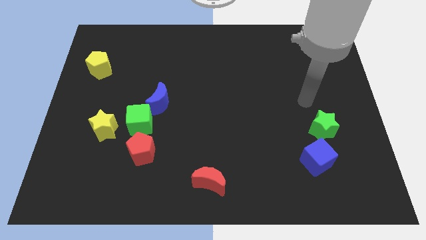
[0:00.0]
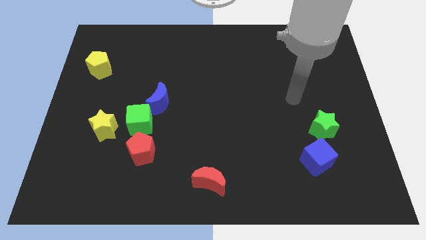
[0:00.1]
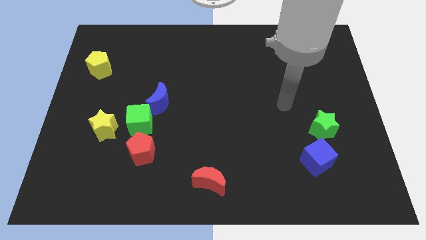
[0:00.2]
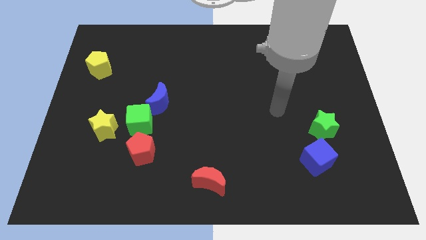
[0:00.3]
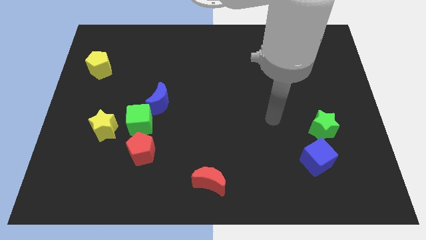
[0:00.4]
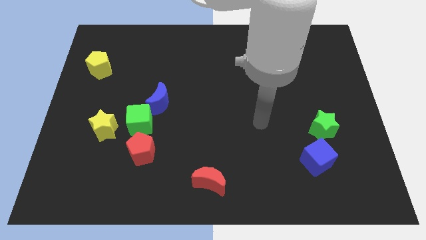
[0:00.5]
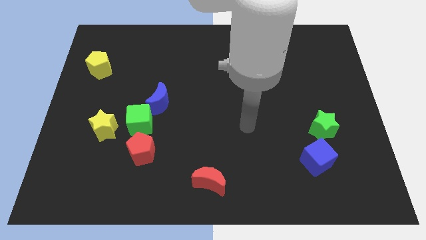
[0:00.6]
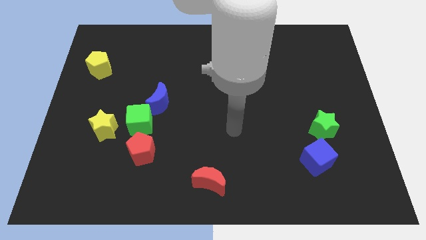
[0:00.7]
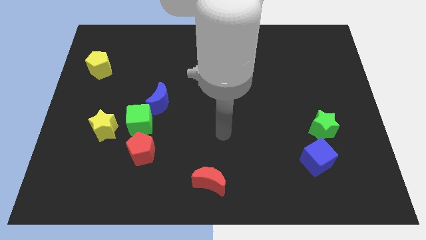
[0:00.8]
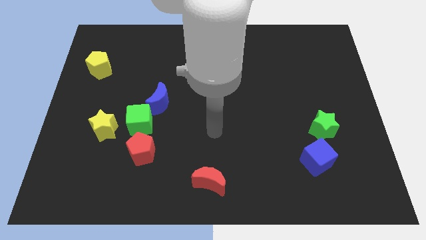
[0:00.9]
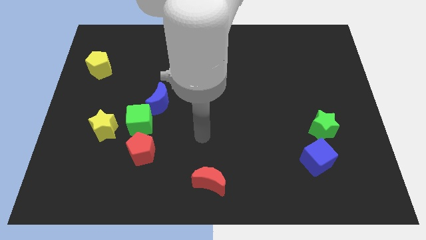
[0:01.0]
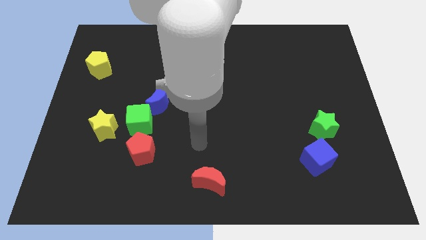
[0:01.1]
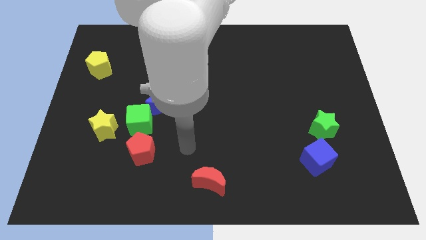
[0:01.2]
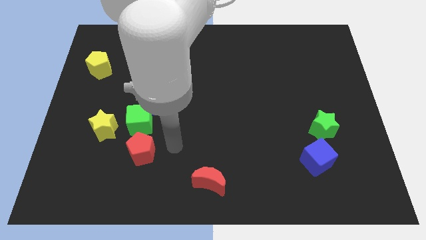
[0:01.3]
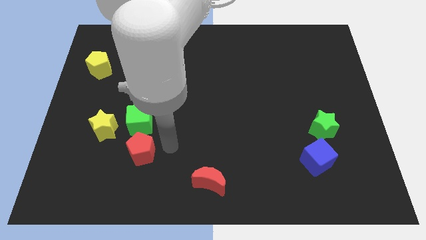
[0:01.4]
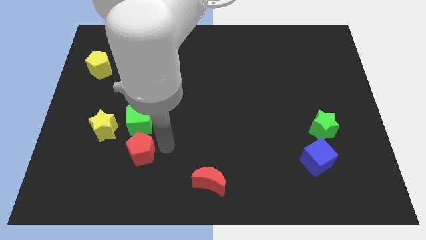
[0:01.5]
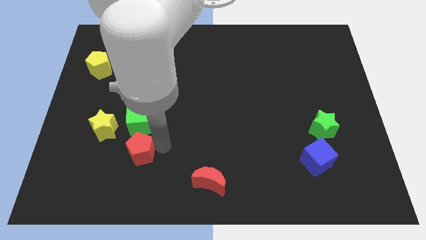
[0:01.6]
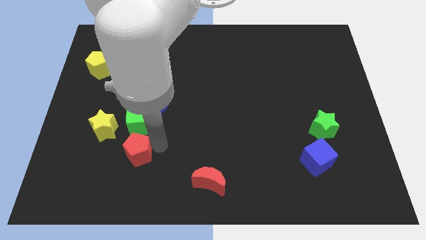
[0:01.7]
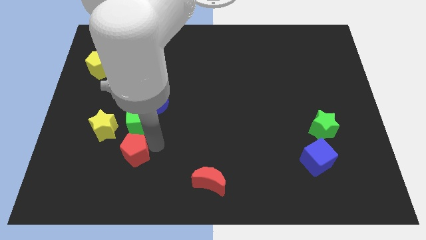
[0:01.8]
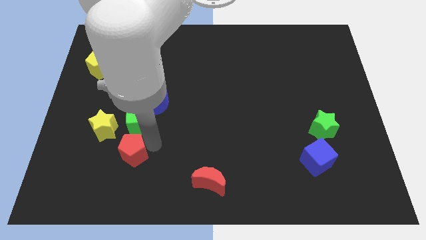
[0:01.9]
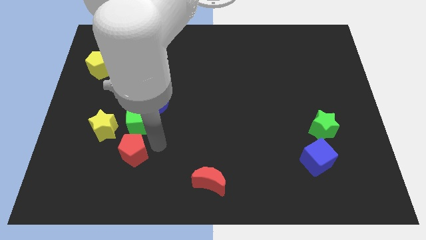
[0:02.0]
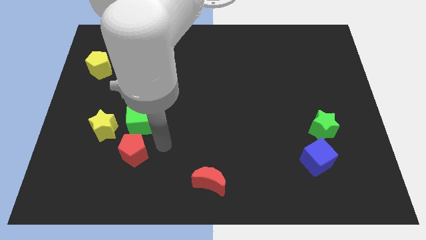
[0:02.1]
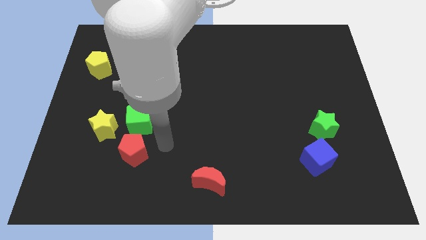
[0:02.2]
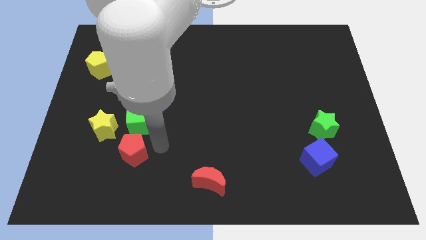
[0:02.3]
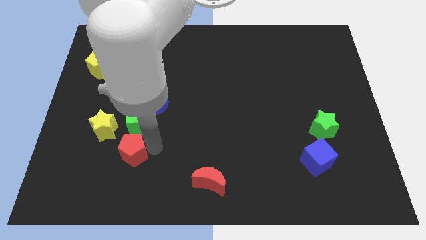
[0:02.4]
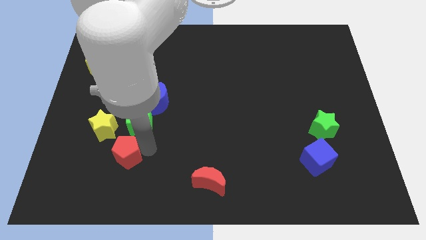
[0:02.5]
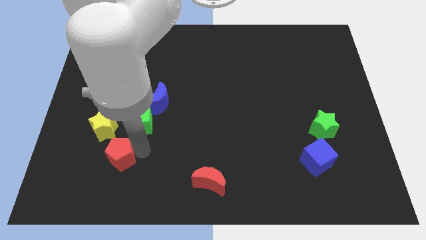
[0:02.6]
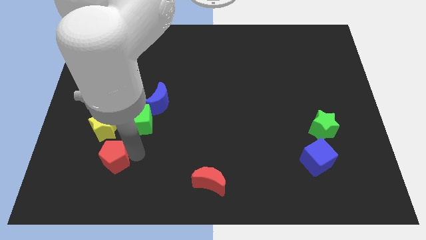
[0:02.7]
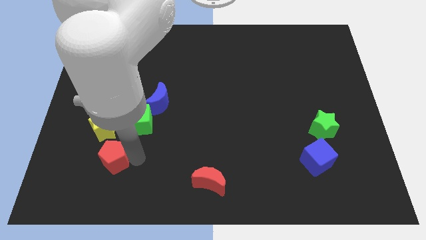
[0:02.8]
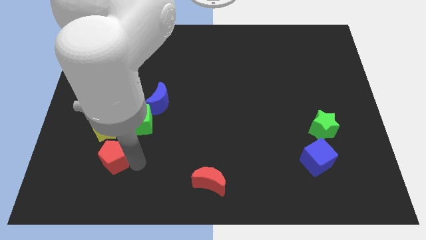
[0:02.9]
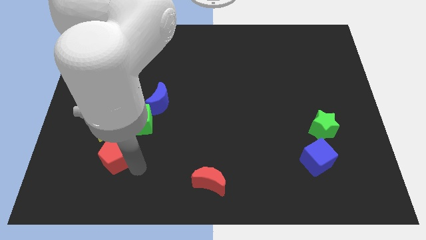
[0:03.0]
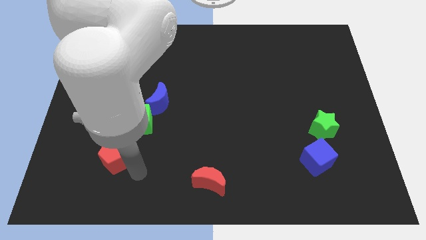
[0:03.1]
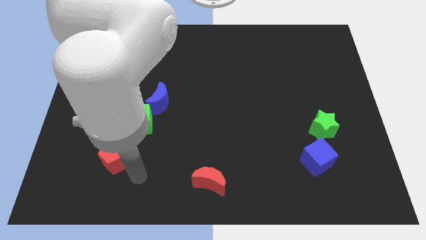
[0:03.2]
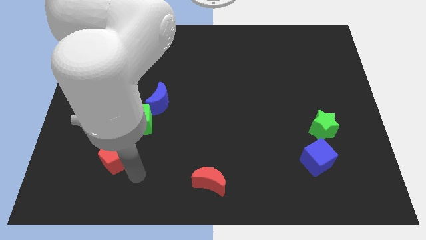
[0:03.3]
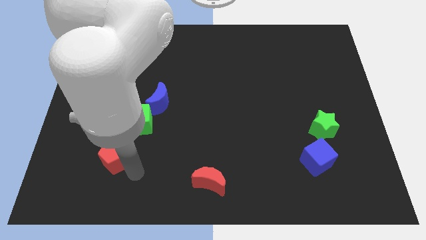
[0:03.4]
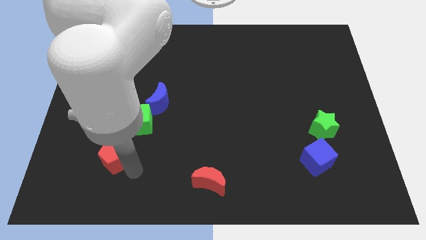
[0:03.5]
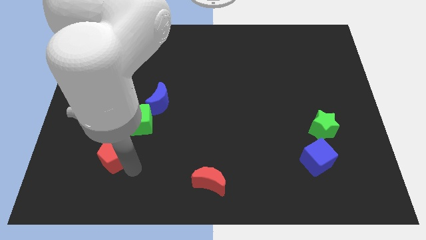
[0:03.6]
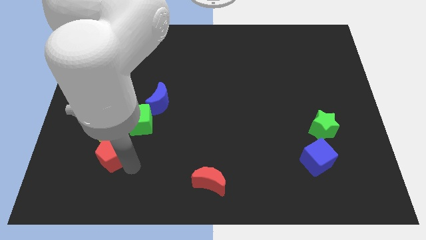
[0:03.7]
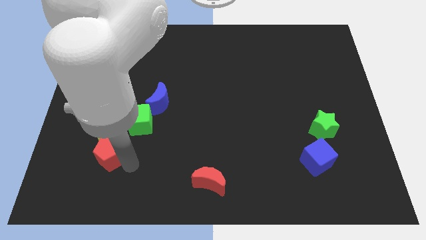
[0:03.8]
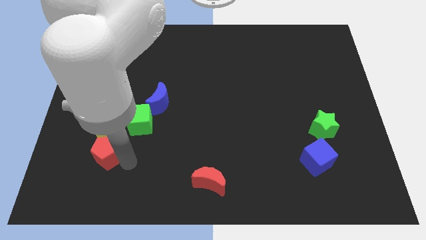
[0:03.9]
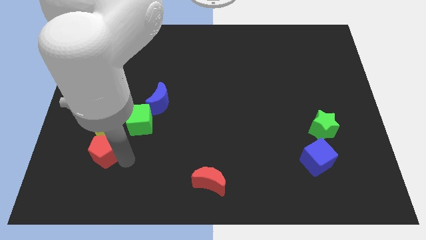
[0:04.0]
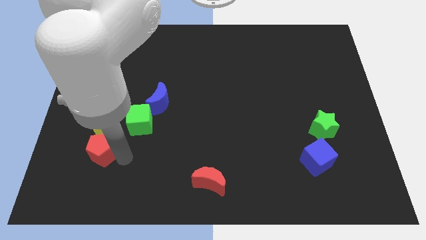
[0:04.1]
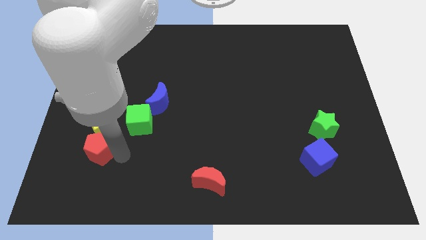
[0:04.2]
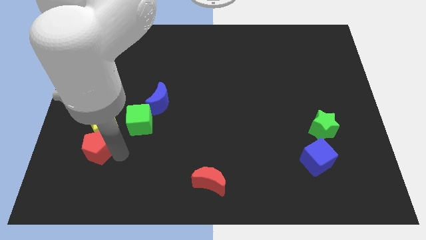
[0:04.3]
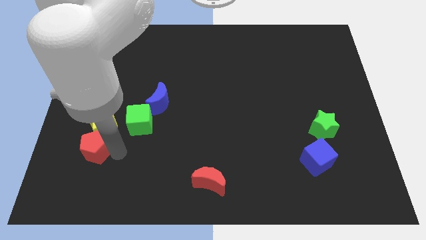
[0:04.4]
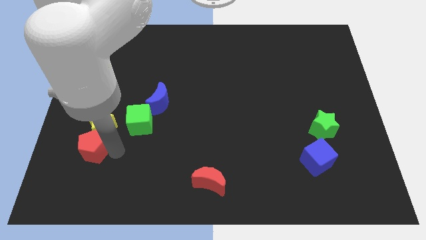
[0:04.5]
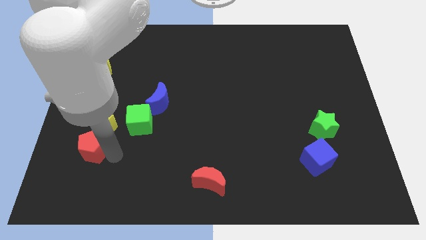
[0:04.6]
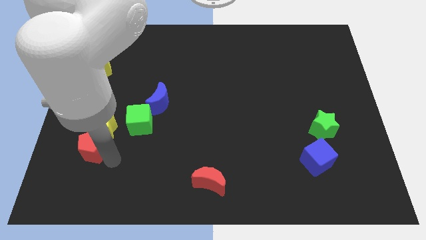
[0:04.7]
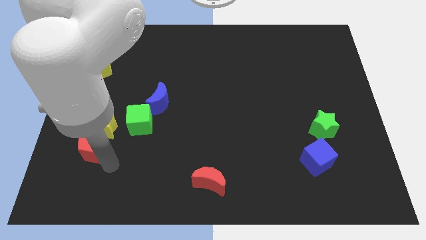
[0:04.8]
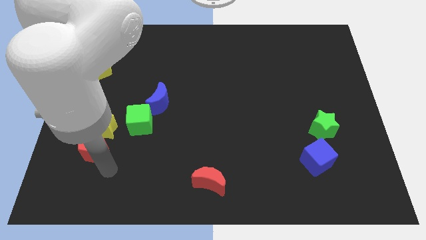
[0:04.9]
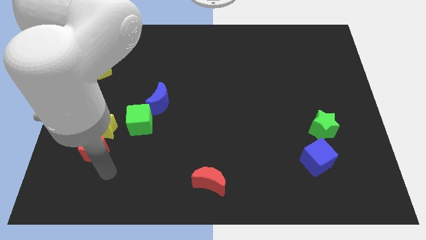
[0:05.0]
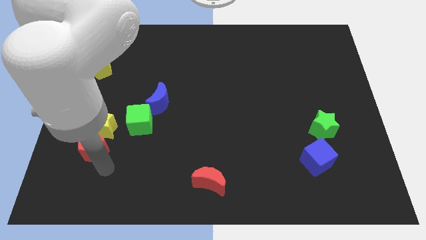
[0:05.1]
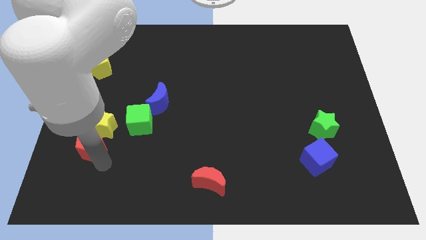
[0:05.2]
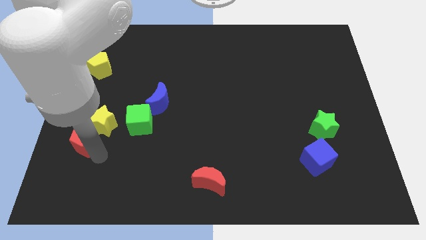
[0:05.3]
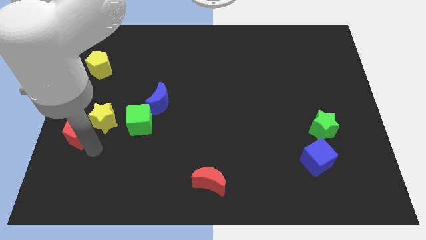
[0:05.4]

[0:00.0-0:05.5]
push the red pentagon to the left side

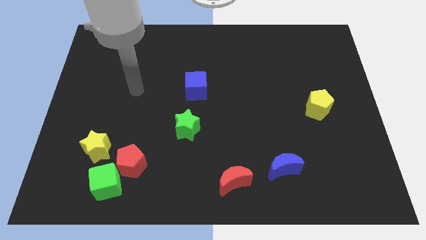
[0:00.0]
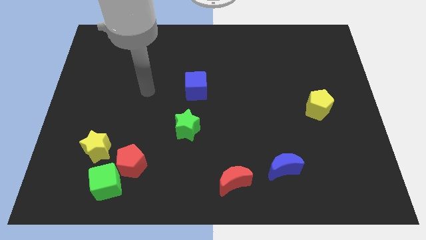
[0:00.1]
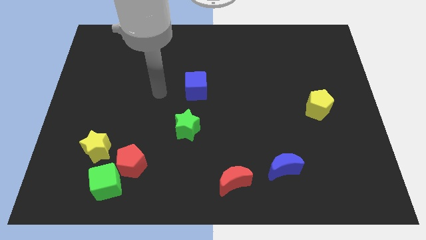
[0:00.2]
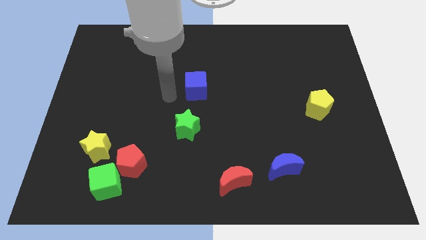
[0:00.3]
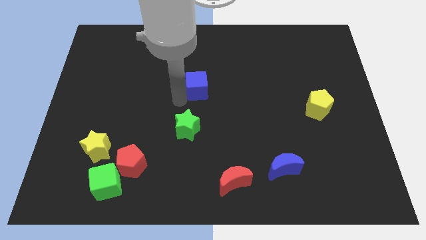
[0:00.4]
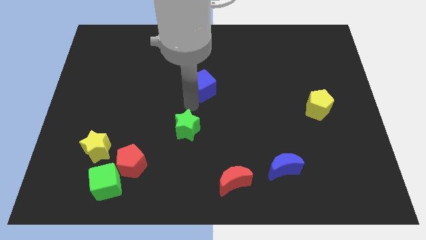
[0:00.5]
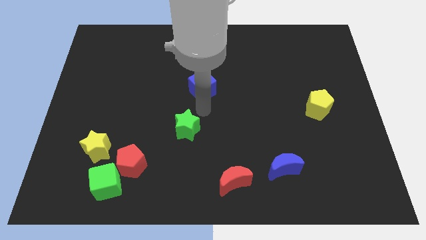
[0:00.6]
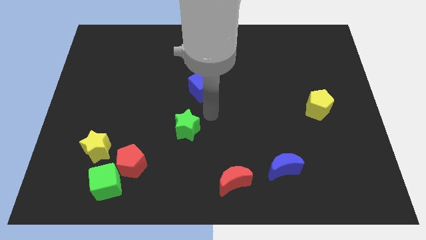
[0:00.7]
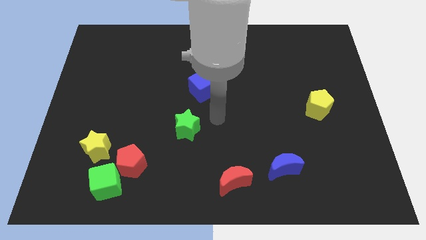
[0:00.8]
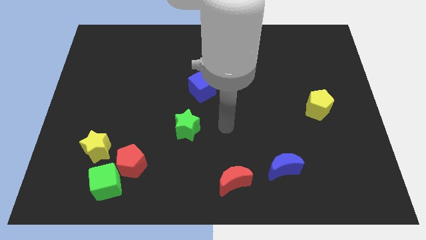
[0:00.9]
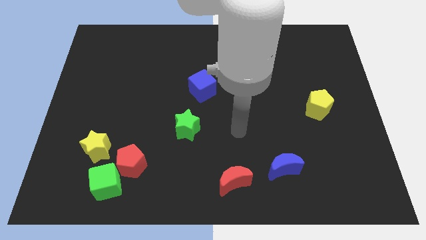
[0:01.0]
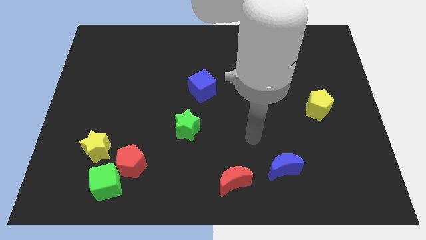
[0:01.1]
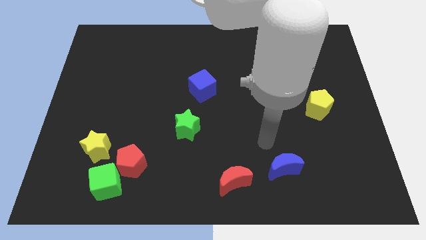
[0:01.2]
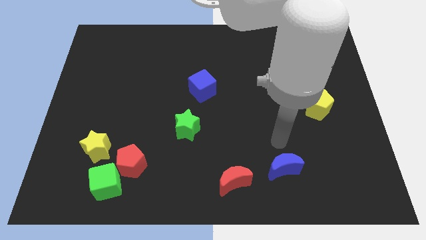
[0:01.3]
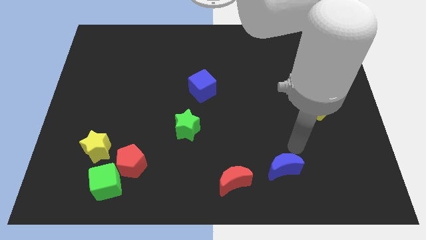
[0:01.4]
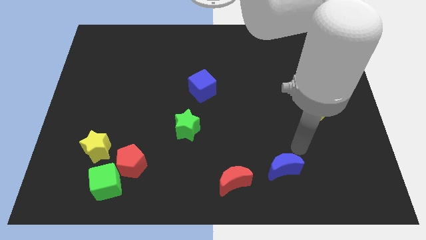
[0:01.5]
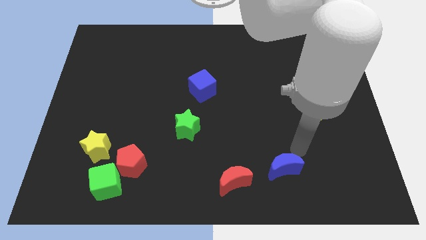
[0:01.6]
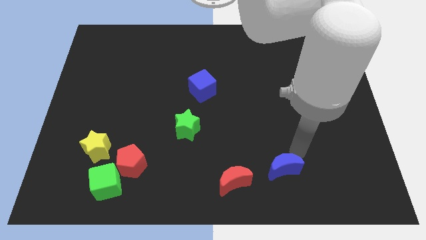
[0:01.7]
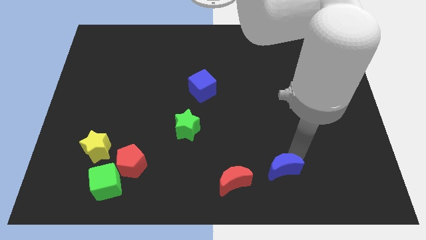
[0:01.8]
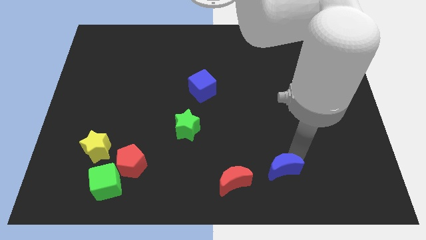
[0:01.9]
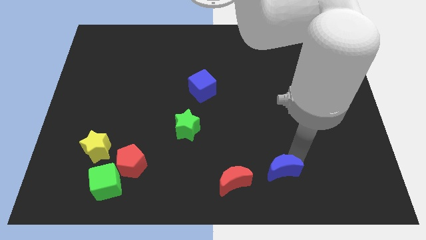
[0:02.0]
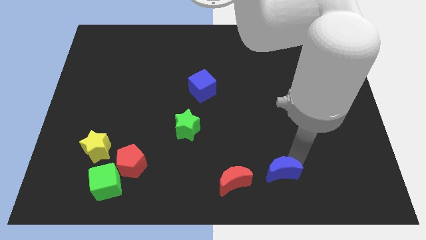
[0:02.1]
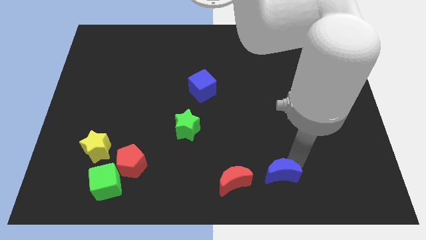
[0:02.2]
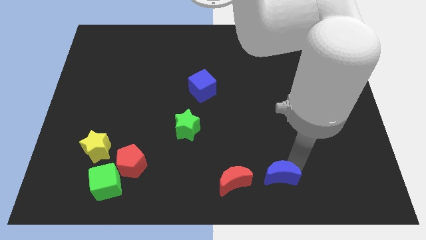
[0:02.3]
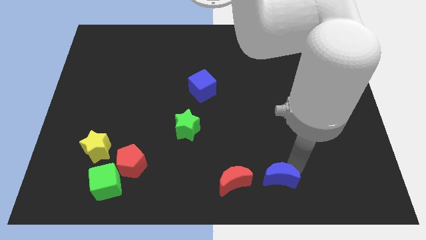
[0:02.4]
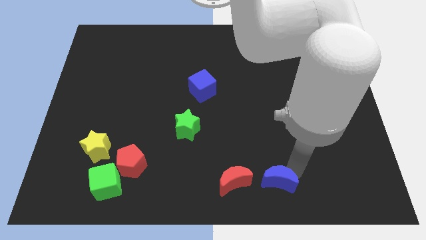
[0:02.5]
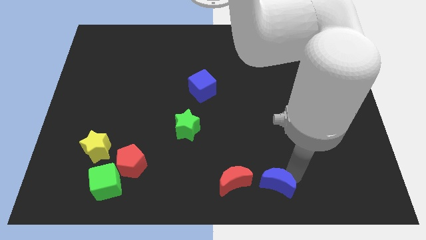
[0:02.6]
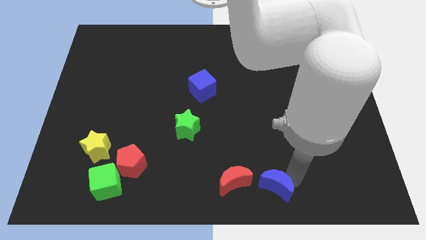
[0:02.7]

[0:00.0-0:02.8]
push the blue moon to the bottom side
